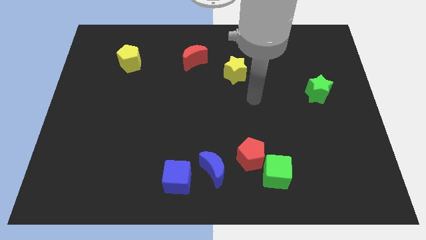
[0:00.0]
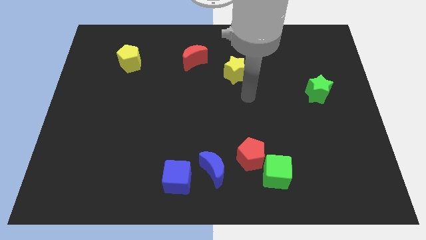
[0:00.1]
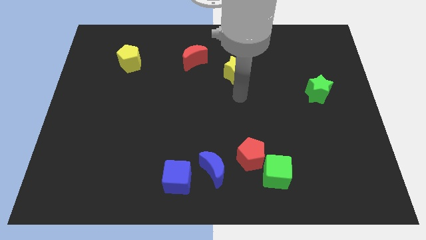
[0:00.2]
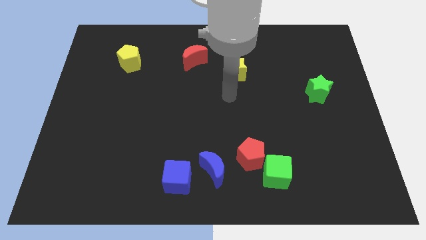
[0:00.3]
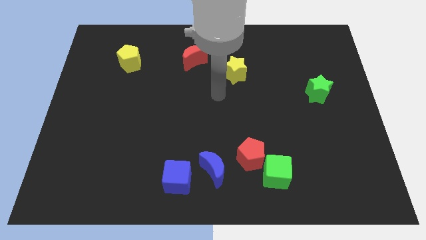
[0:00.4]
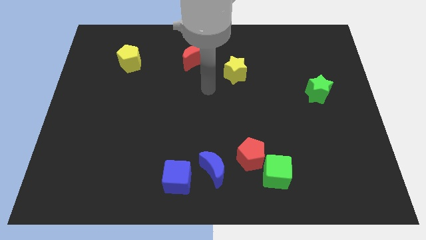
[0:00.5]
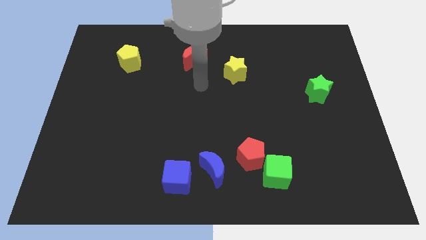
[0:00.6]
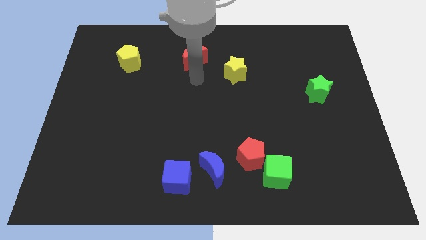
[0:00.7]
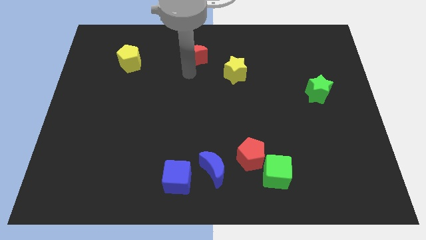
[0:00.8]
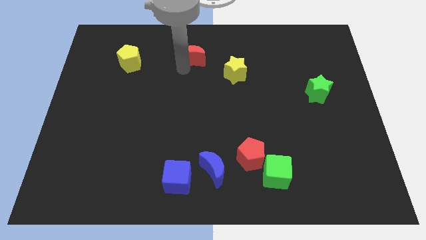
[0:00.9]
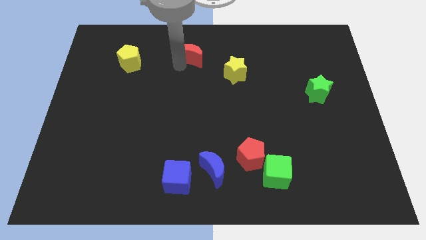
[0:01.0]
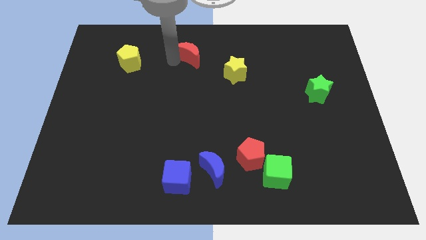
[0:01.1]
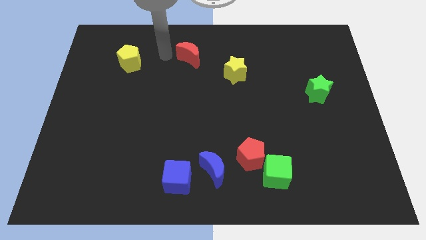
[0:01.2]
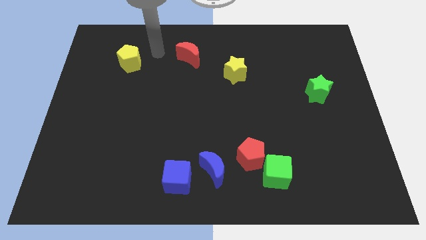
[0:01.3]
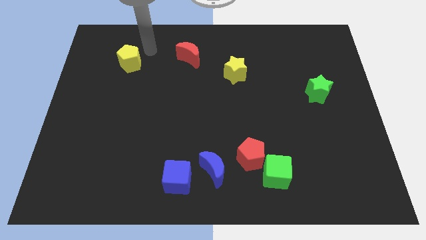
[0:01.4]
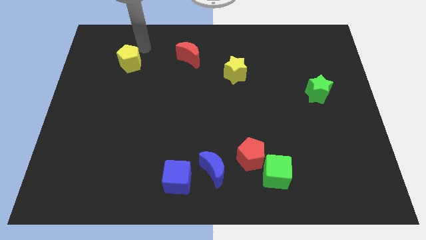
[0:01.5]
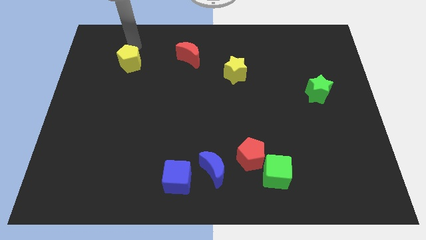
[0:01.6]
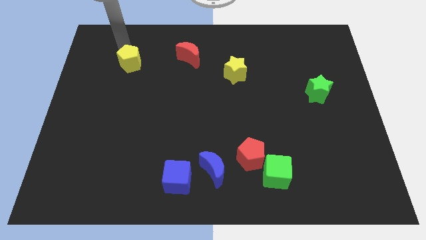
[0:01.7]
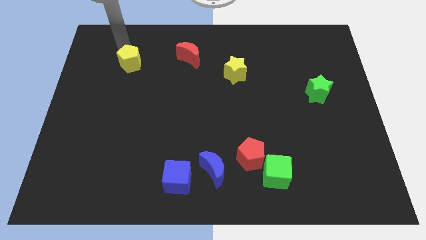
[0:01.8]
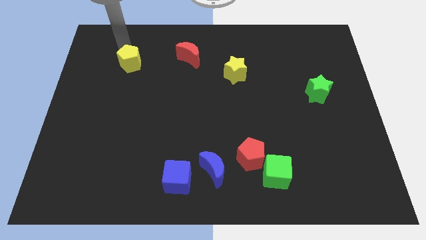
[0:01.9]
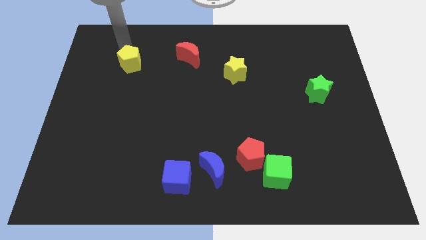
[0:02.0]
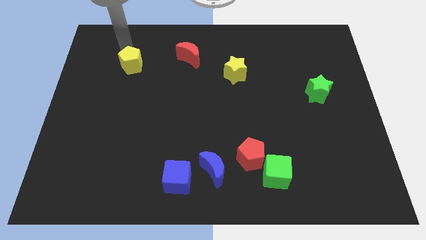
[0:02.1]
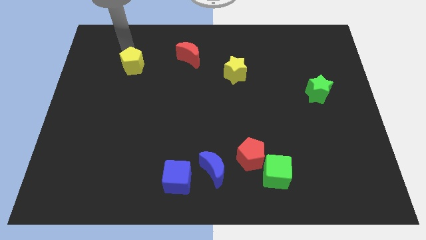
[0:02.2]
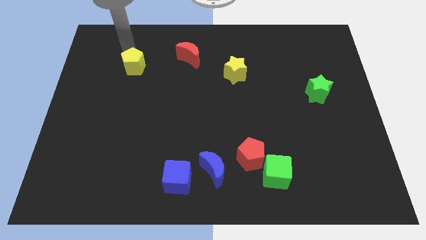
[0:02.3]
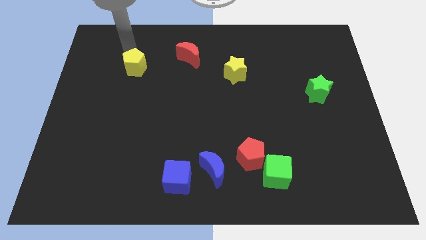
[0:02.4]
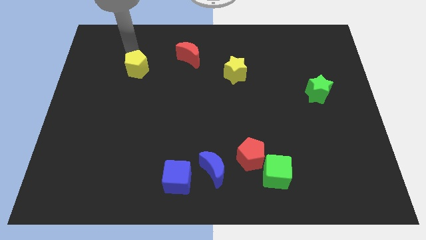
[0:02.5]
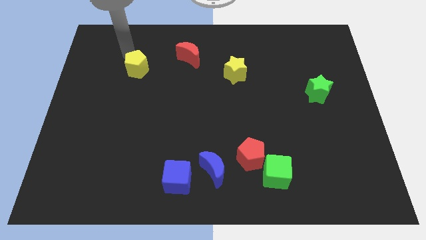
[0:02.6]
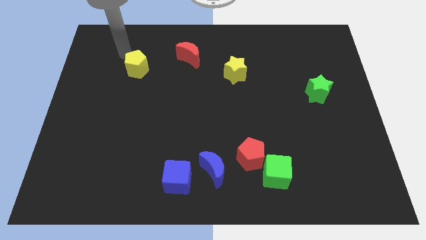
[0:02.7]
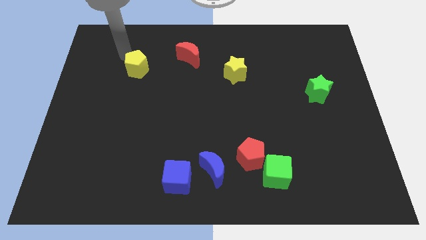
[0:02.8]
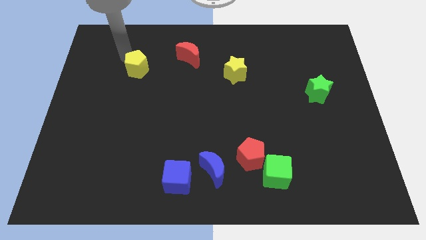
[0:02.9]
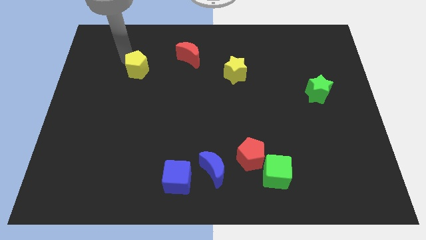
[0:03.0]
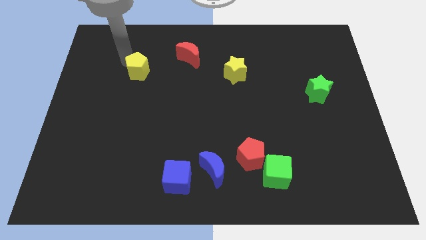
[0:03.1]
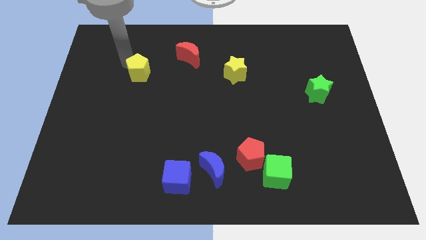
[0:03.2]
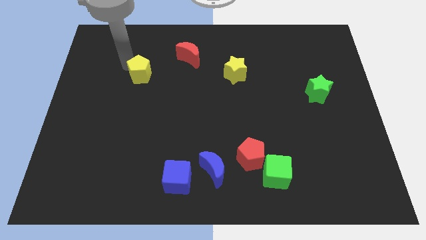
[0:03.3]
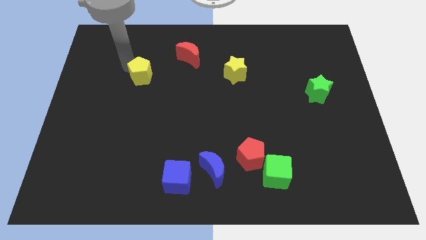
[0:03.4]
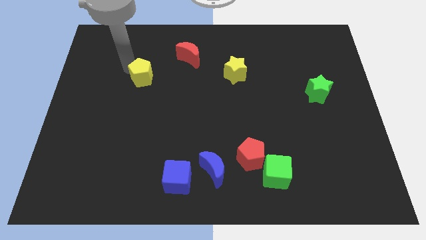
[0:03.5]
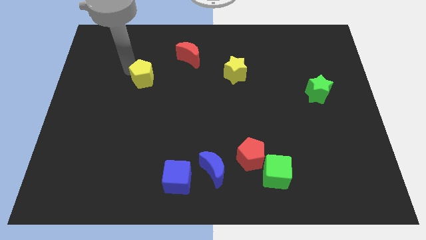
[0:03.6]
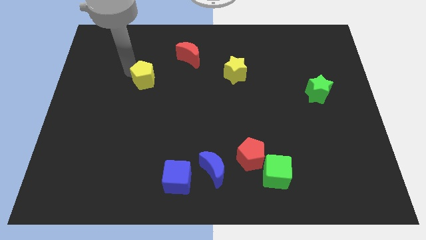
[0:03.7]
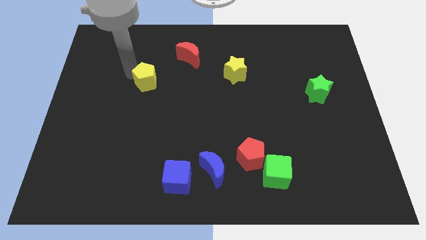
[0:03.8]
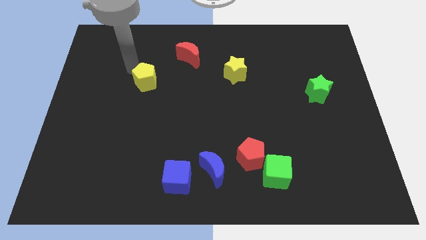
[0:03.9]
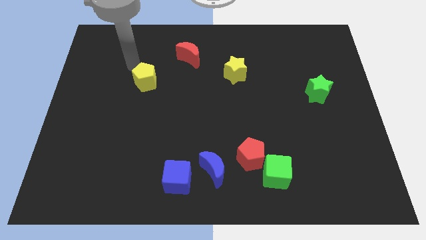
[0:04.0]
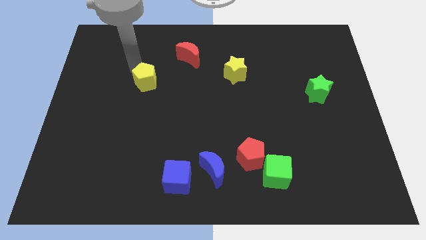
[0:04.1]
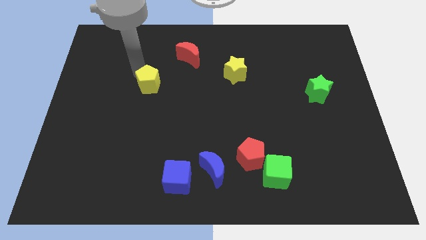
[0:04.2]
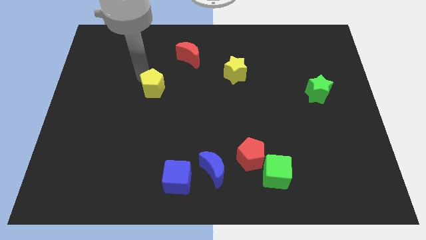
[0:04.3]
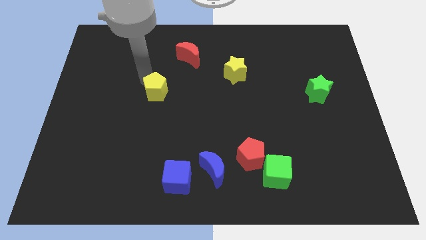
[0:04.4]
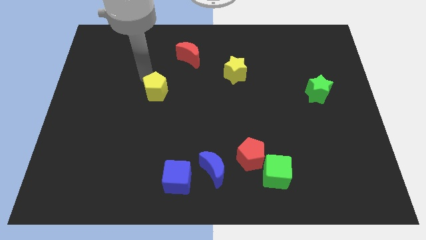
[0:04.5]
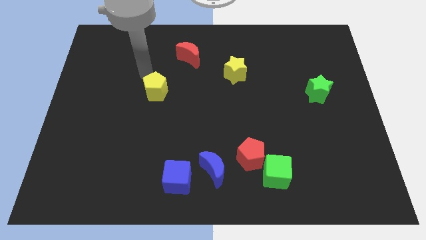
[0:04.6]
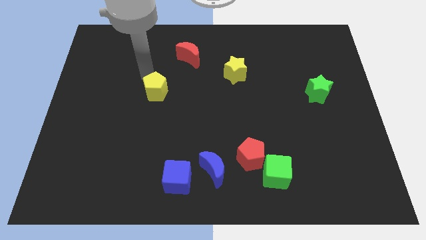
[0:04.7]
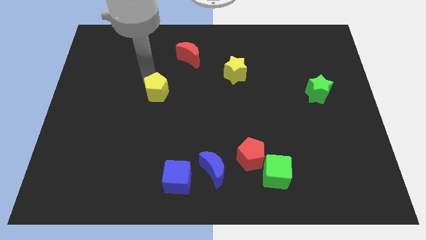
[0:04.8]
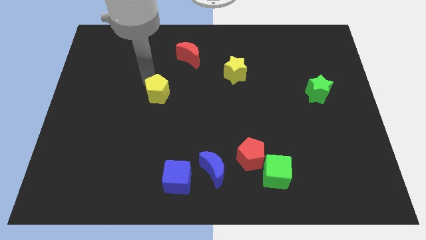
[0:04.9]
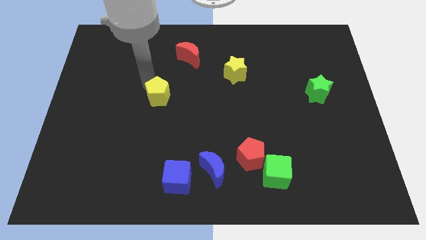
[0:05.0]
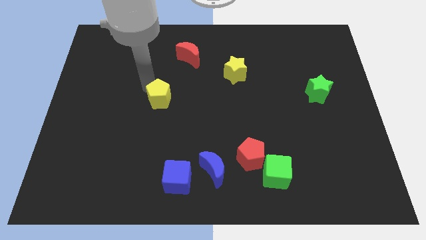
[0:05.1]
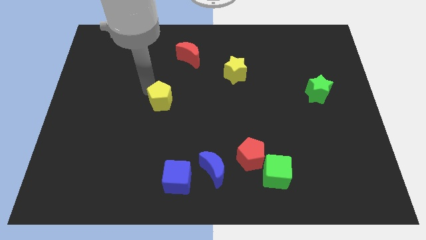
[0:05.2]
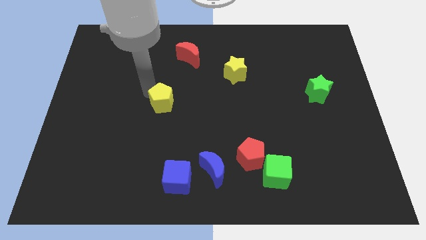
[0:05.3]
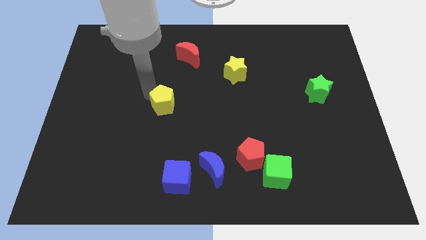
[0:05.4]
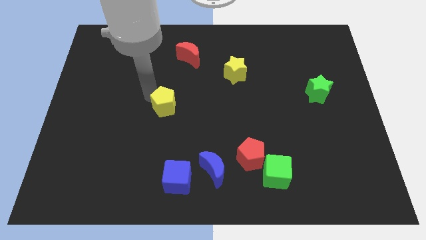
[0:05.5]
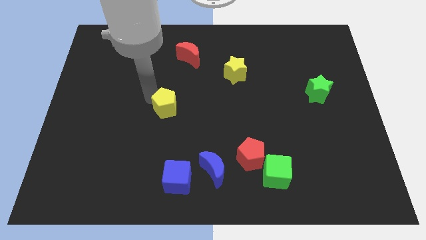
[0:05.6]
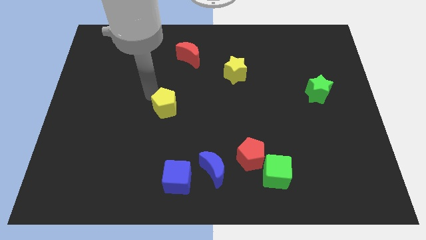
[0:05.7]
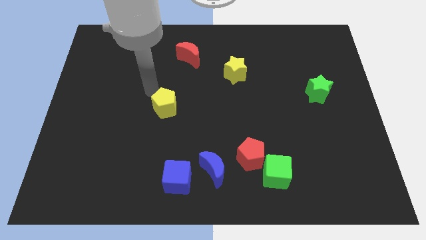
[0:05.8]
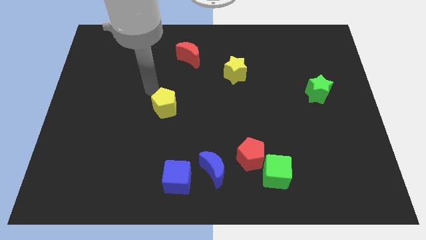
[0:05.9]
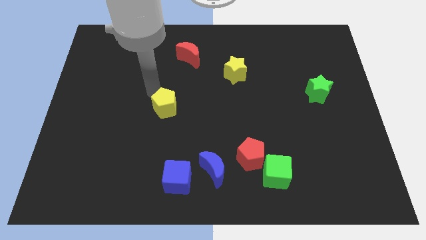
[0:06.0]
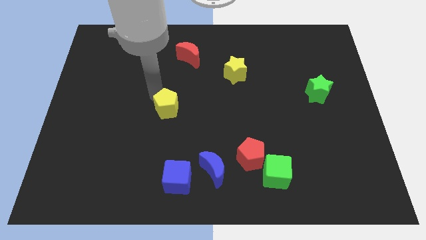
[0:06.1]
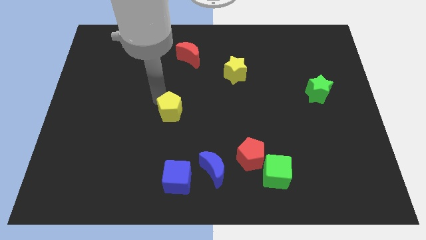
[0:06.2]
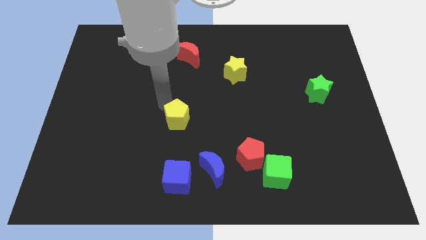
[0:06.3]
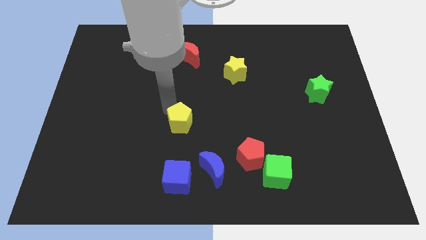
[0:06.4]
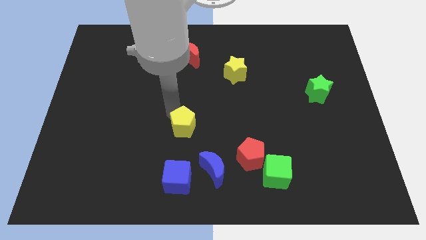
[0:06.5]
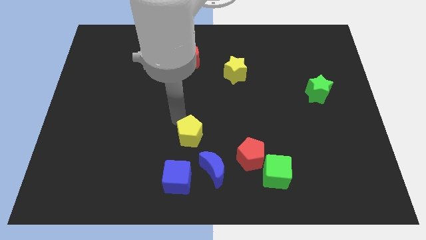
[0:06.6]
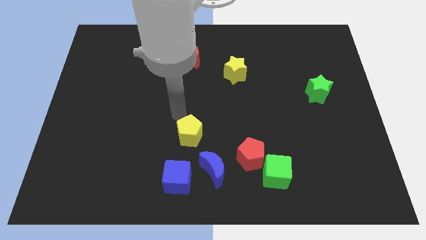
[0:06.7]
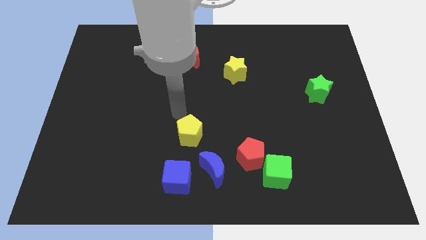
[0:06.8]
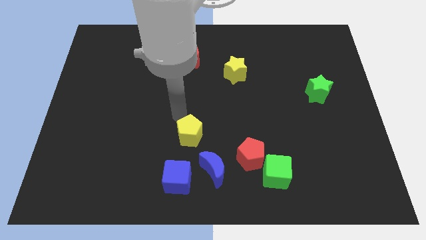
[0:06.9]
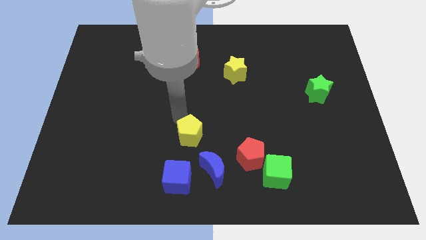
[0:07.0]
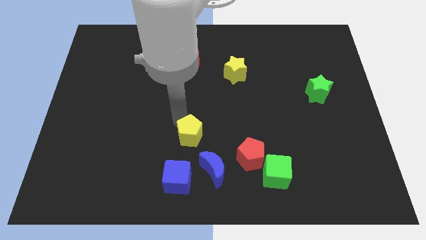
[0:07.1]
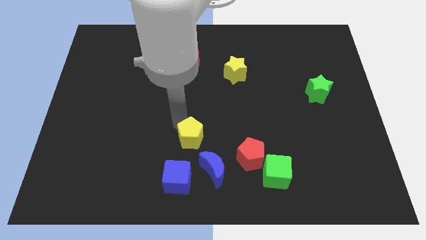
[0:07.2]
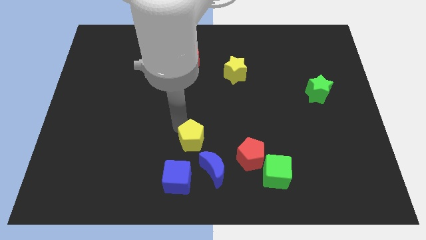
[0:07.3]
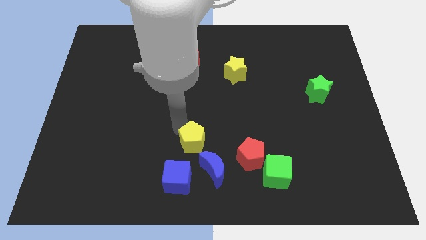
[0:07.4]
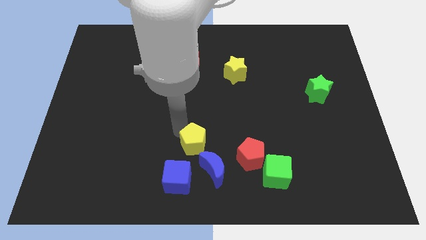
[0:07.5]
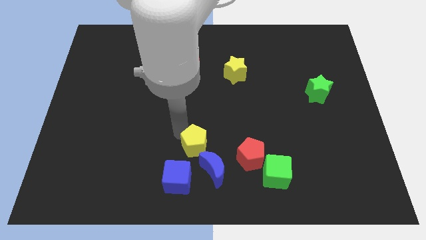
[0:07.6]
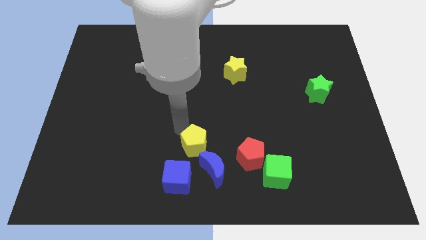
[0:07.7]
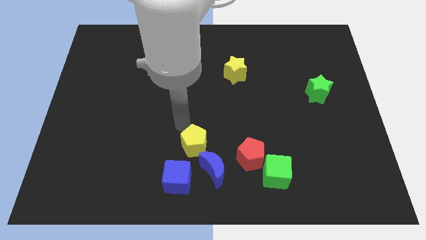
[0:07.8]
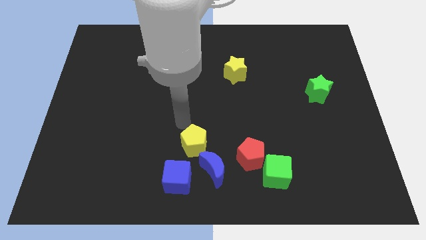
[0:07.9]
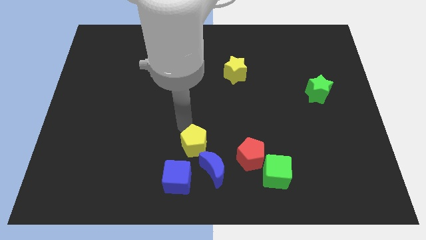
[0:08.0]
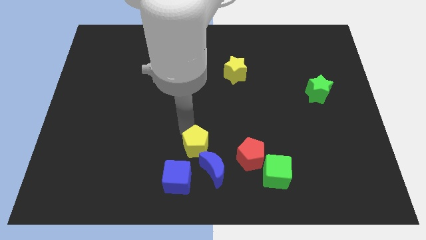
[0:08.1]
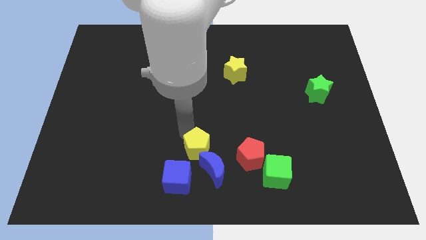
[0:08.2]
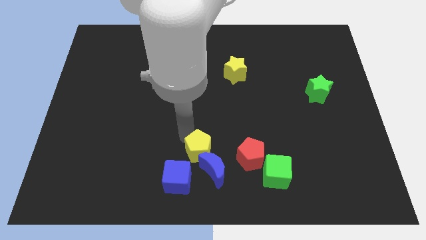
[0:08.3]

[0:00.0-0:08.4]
push the yellow pentagon close to the blue moon
